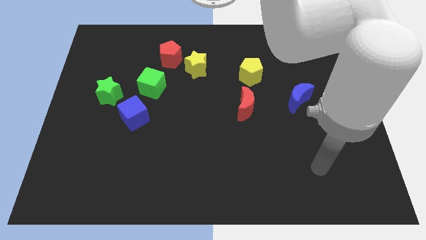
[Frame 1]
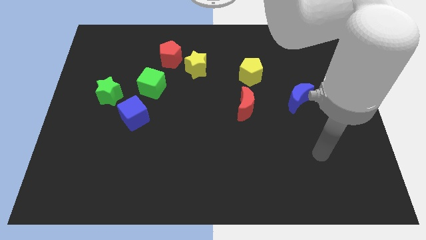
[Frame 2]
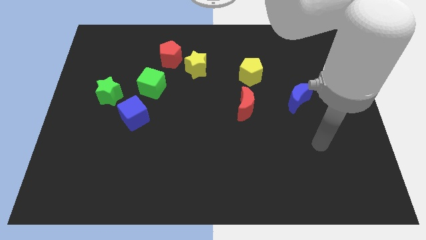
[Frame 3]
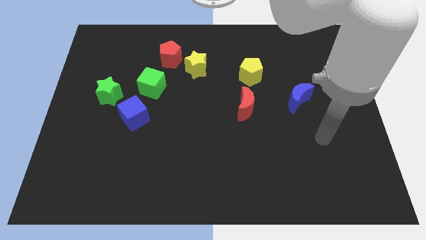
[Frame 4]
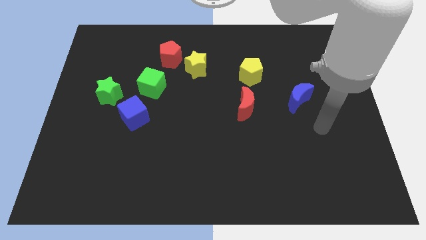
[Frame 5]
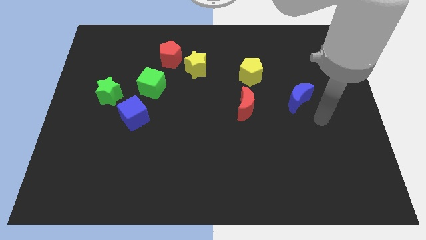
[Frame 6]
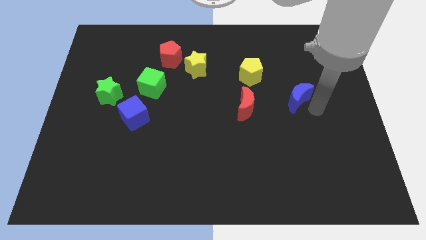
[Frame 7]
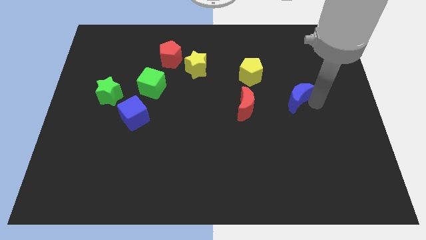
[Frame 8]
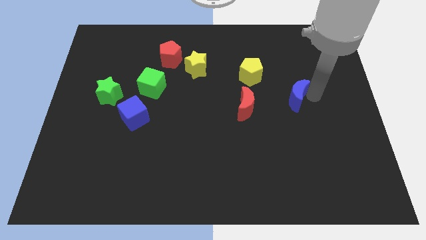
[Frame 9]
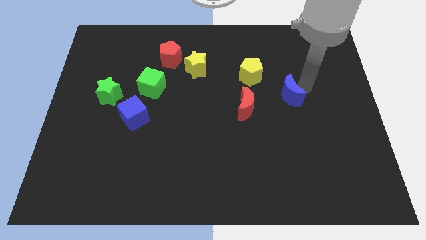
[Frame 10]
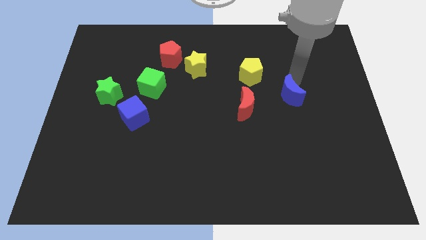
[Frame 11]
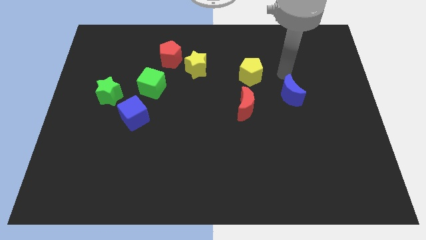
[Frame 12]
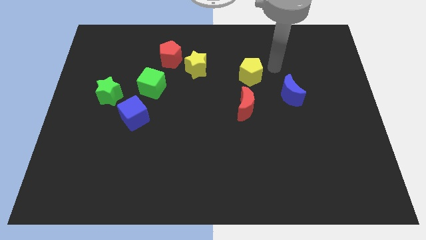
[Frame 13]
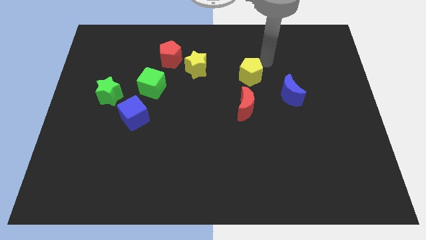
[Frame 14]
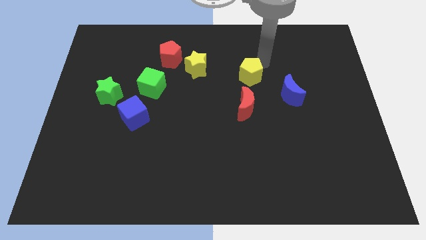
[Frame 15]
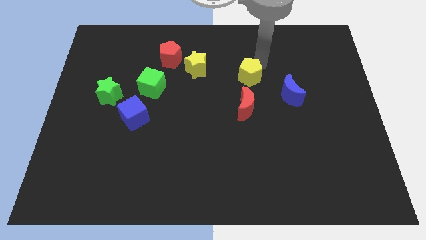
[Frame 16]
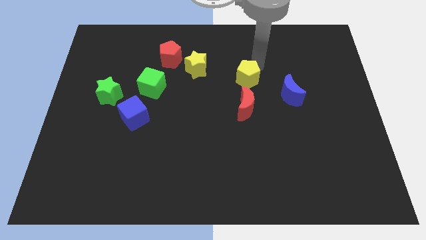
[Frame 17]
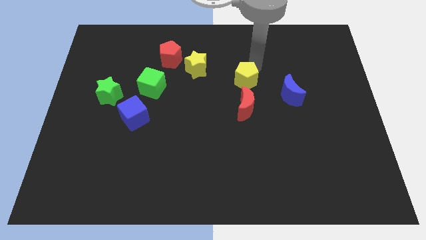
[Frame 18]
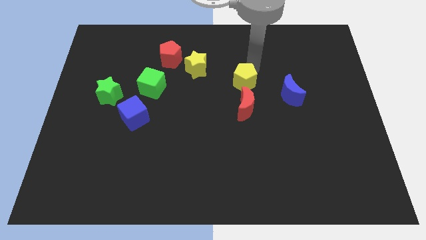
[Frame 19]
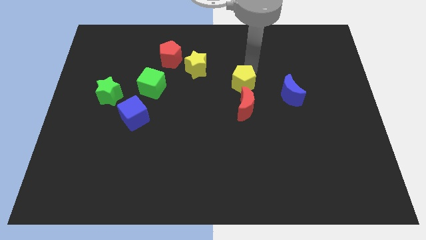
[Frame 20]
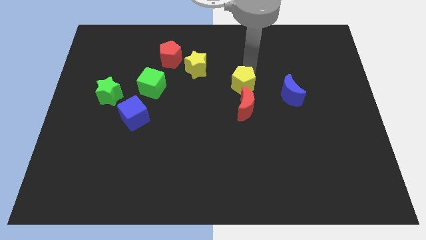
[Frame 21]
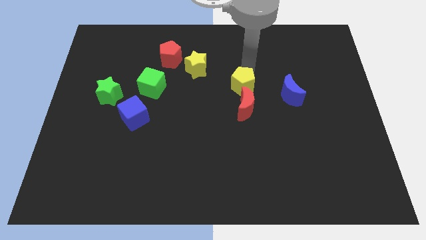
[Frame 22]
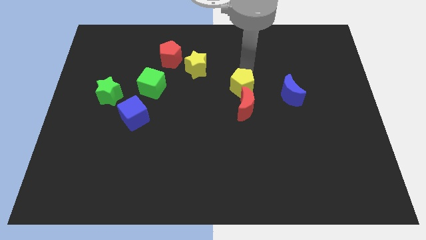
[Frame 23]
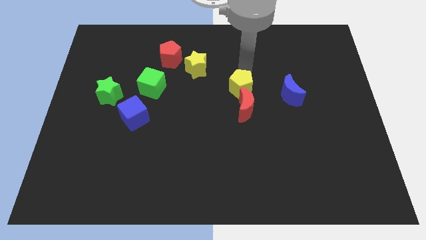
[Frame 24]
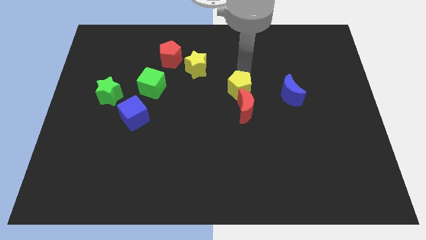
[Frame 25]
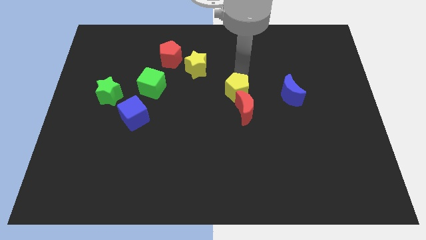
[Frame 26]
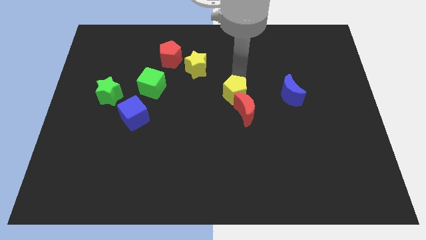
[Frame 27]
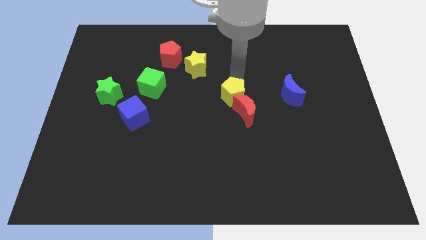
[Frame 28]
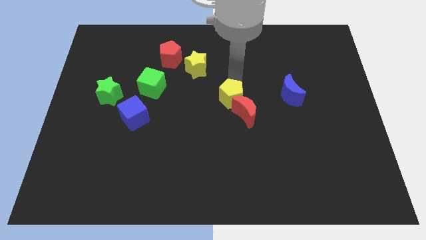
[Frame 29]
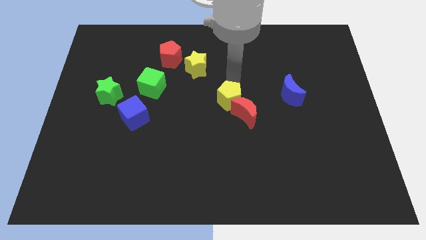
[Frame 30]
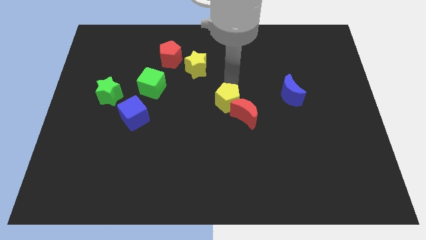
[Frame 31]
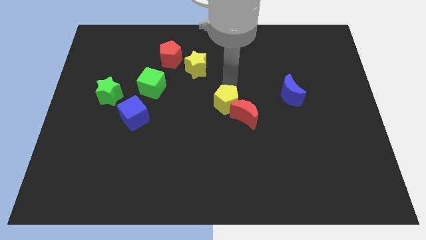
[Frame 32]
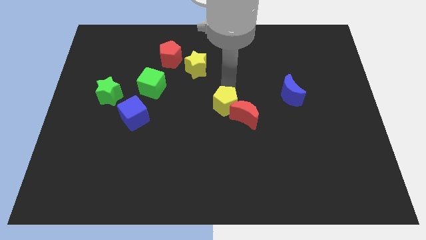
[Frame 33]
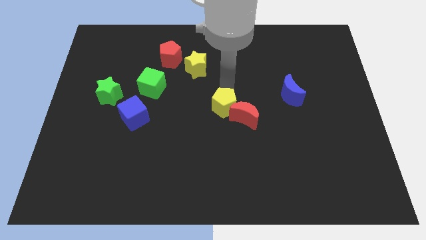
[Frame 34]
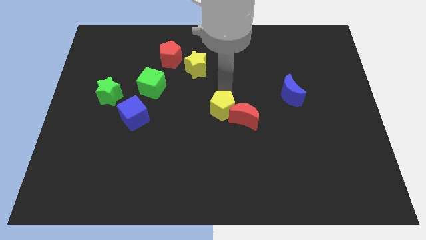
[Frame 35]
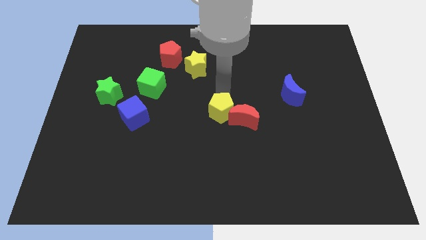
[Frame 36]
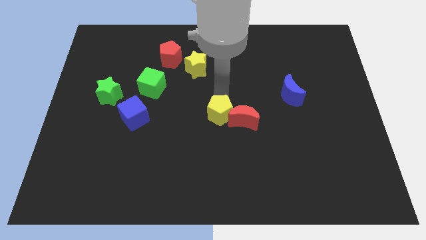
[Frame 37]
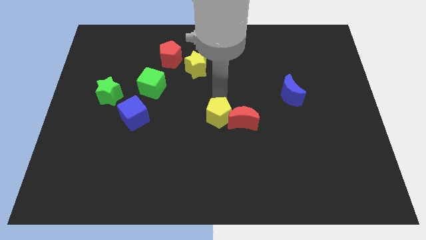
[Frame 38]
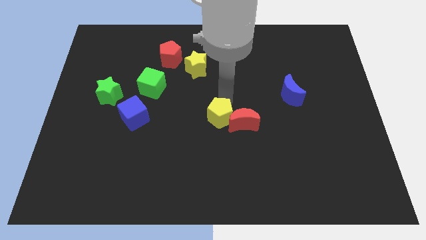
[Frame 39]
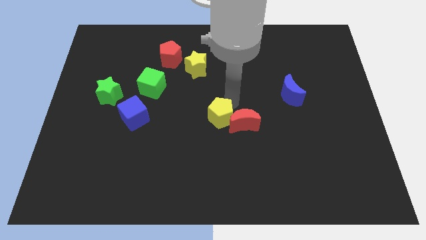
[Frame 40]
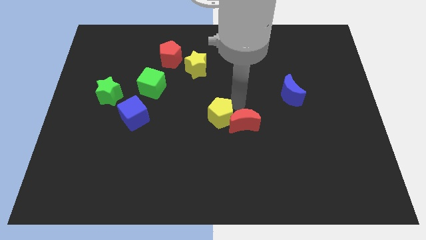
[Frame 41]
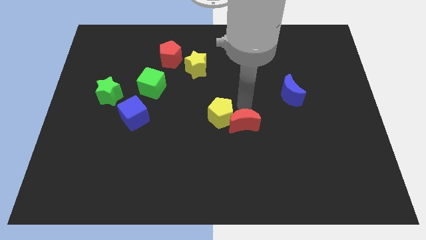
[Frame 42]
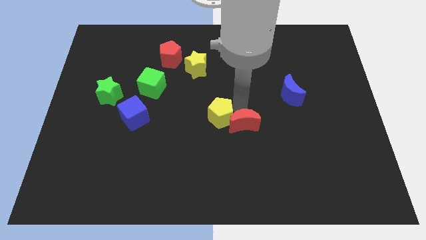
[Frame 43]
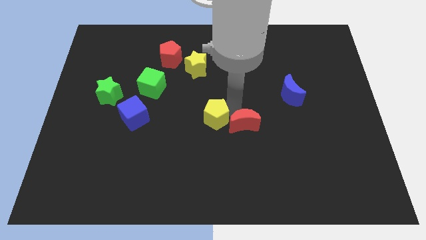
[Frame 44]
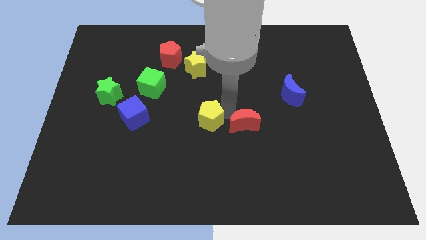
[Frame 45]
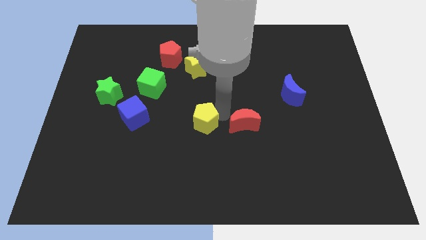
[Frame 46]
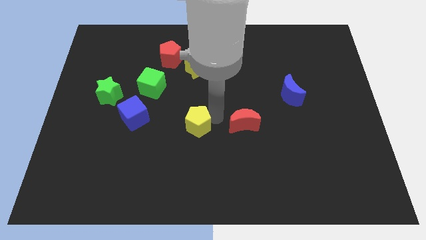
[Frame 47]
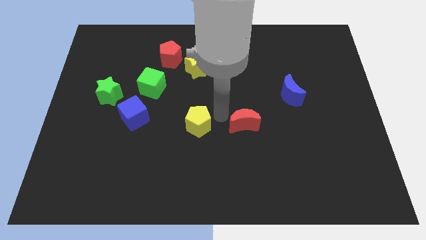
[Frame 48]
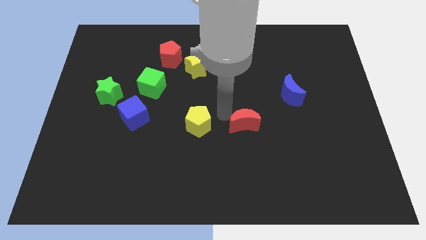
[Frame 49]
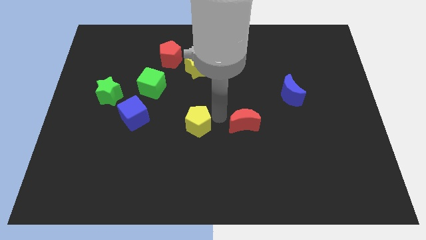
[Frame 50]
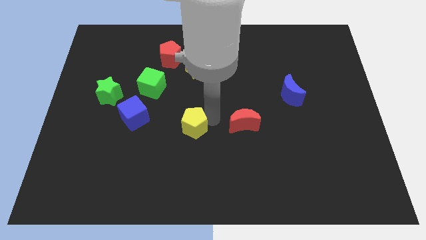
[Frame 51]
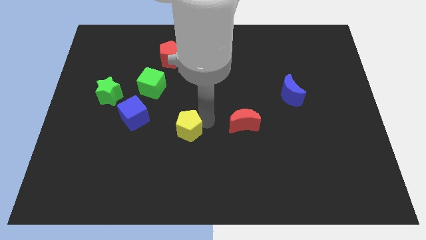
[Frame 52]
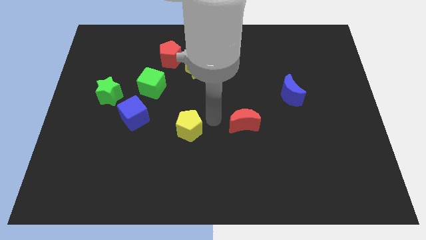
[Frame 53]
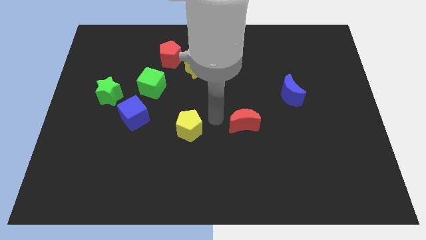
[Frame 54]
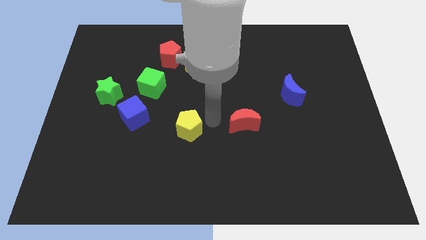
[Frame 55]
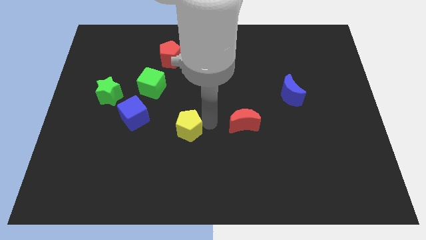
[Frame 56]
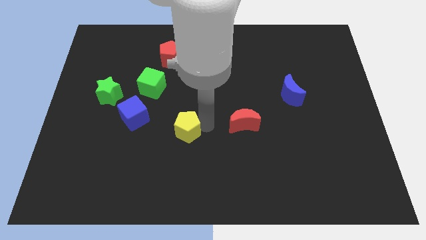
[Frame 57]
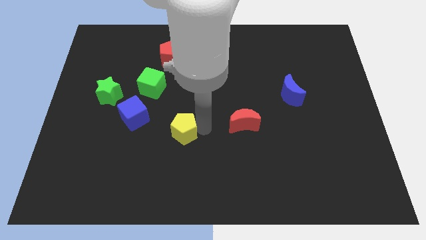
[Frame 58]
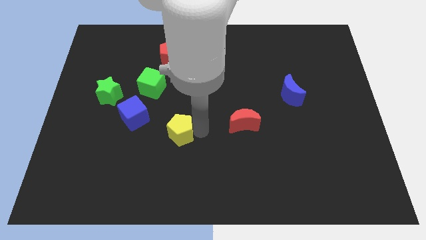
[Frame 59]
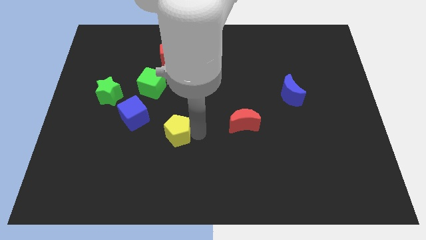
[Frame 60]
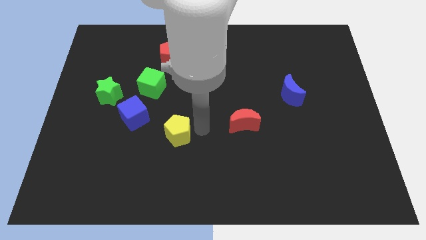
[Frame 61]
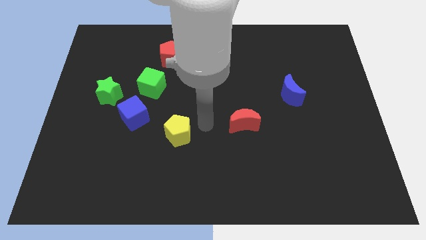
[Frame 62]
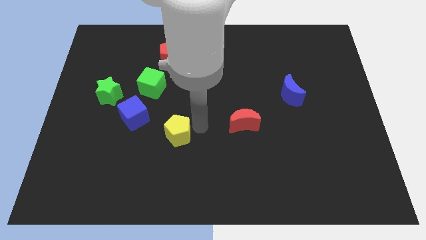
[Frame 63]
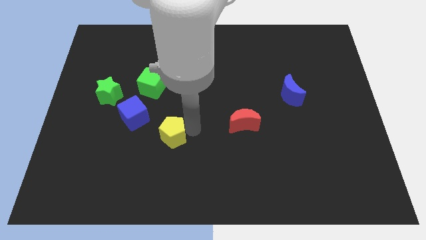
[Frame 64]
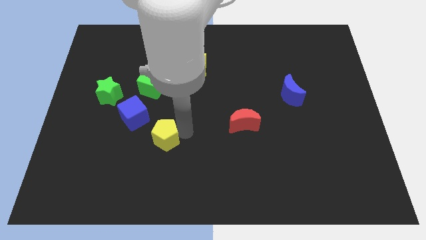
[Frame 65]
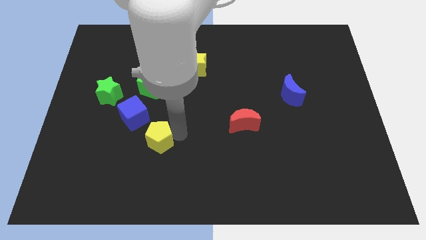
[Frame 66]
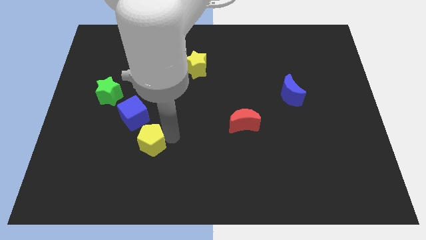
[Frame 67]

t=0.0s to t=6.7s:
slide the yellow pentagon below the blue cube

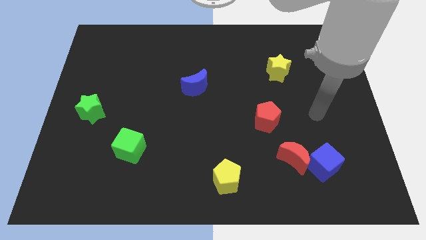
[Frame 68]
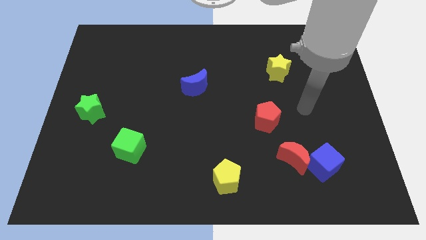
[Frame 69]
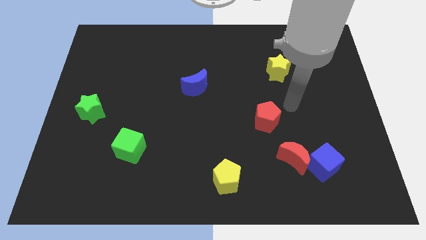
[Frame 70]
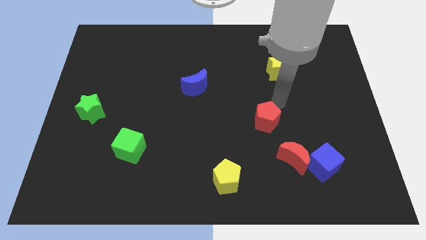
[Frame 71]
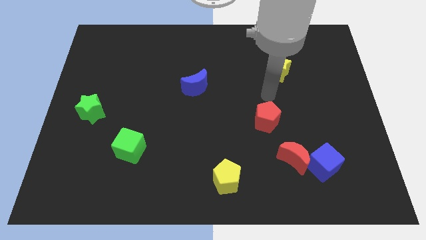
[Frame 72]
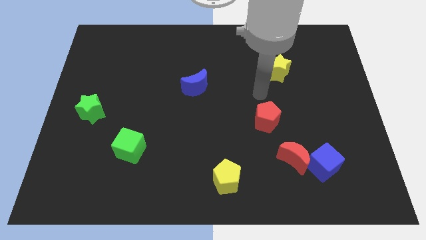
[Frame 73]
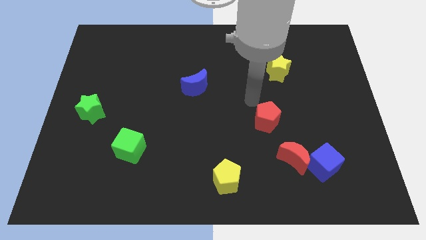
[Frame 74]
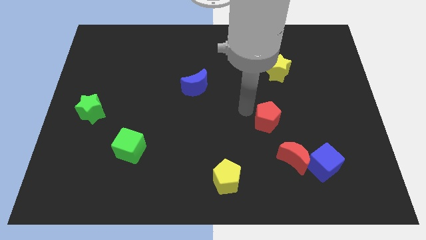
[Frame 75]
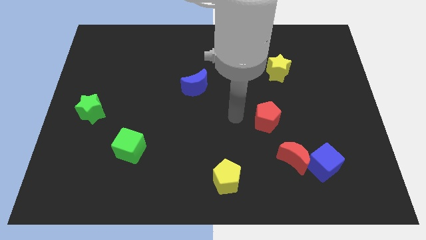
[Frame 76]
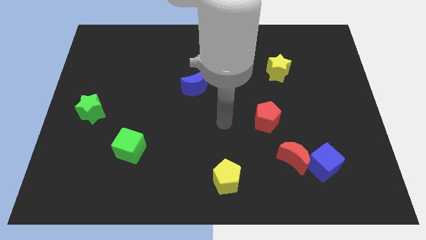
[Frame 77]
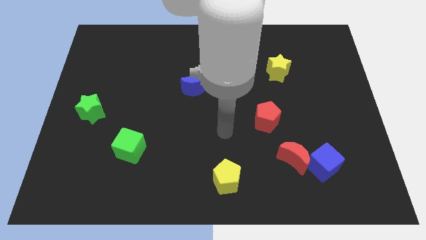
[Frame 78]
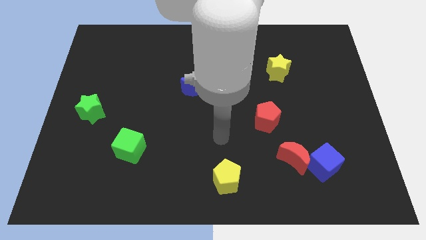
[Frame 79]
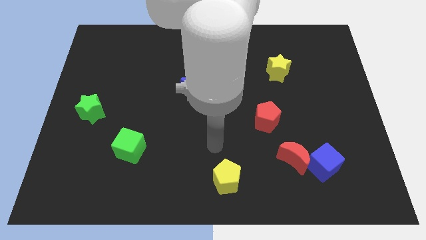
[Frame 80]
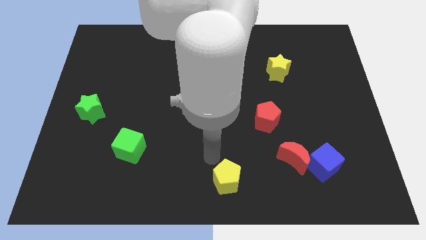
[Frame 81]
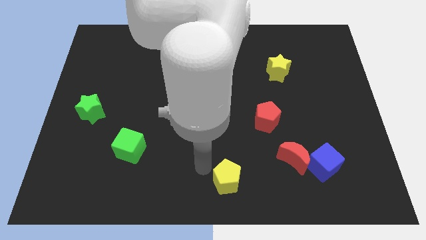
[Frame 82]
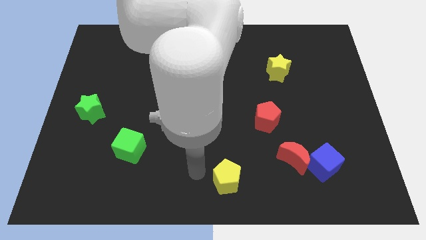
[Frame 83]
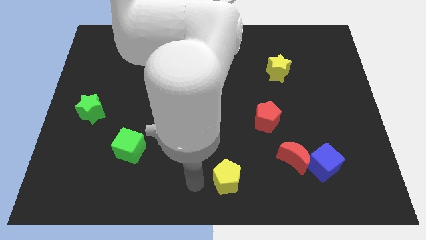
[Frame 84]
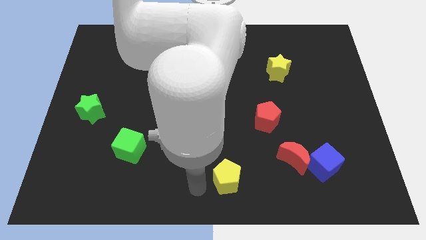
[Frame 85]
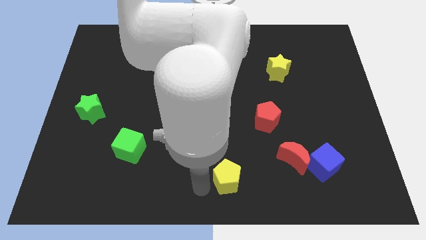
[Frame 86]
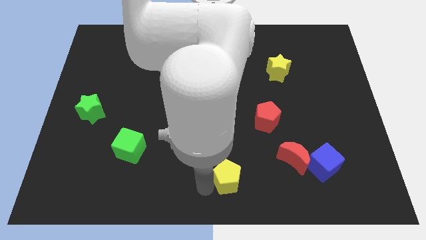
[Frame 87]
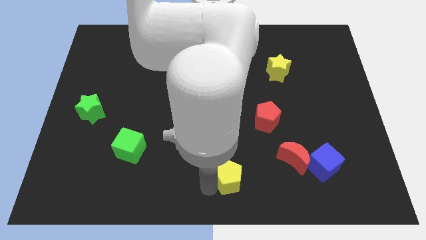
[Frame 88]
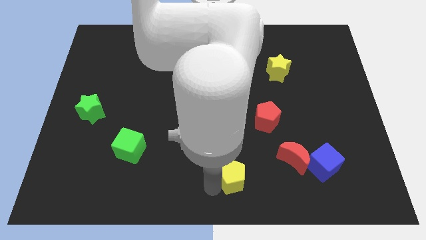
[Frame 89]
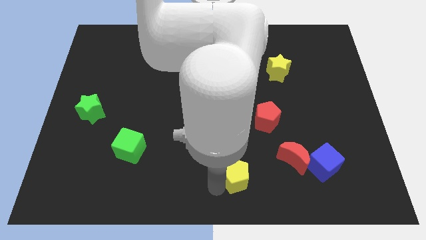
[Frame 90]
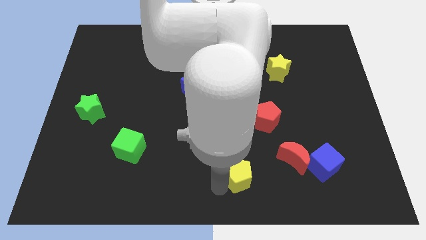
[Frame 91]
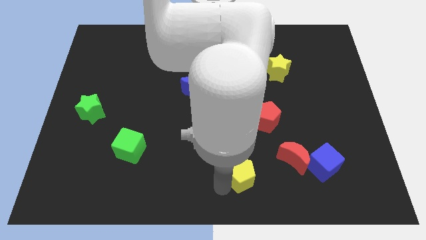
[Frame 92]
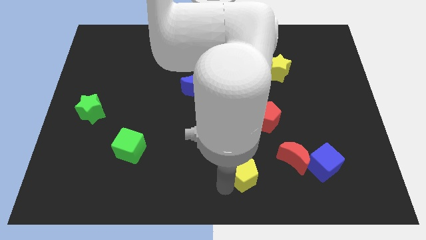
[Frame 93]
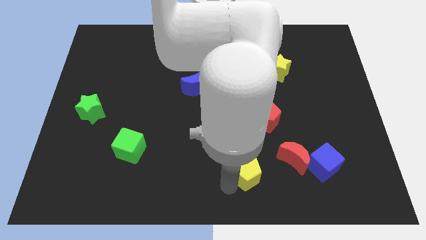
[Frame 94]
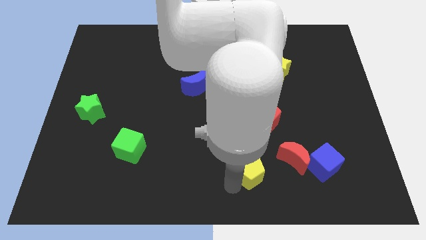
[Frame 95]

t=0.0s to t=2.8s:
put the yellow pentagon to the left side of the blue cube
